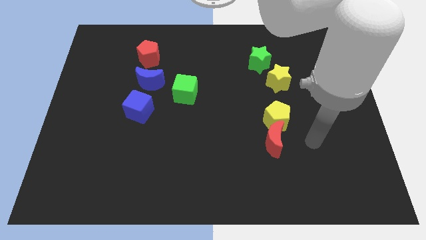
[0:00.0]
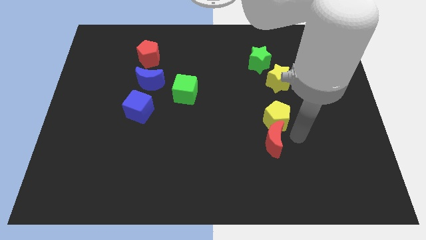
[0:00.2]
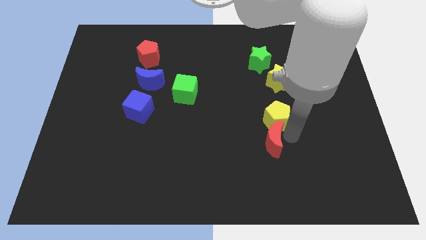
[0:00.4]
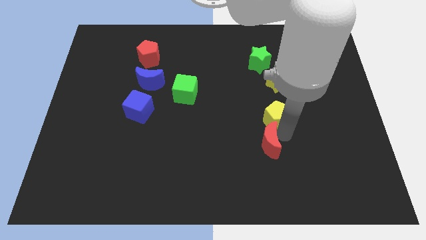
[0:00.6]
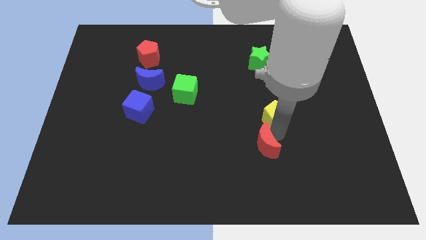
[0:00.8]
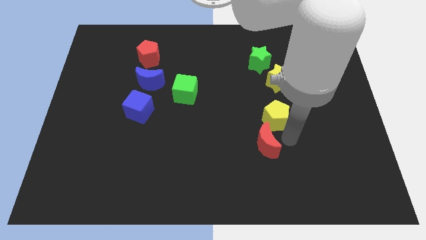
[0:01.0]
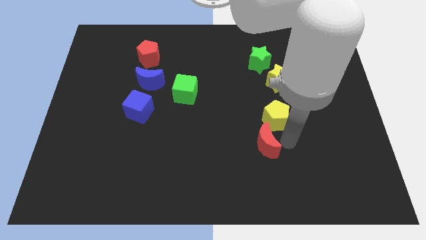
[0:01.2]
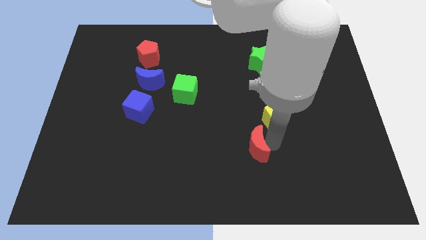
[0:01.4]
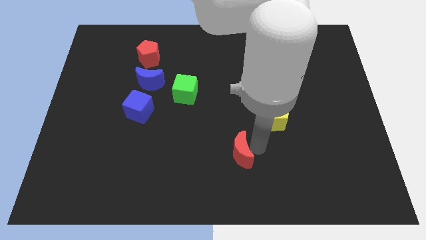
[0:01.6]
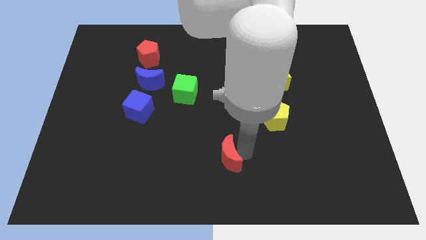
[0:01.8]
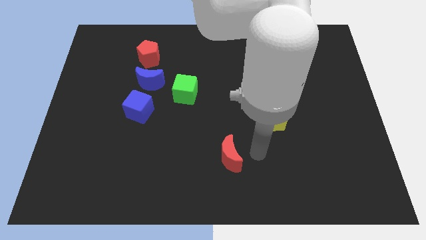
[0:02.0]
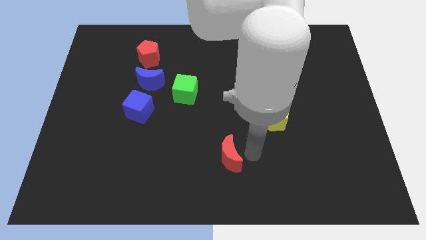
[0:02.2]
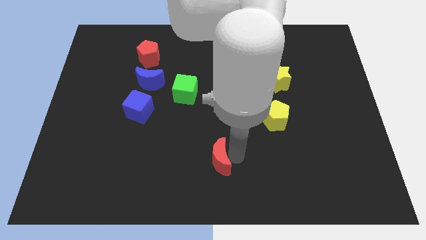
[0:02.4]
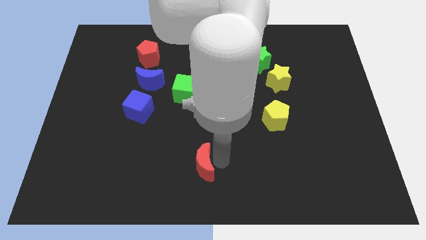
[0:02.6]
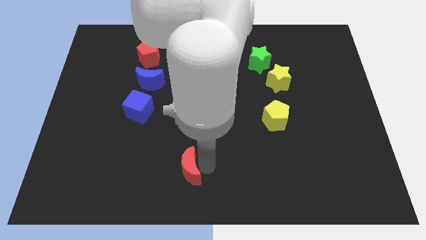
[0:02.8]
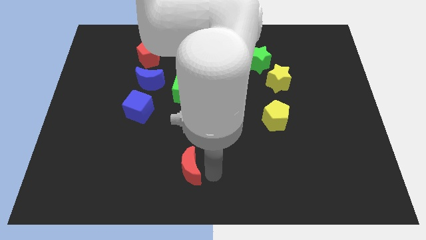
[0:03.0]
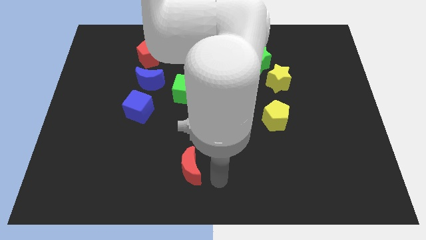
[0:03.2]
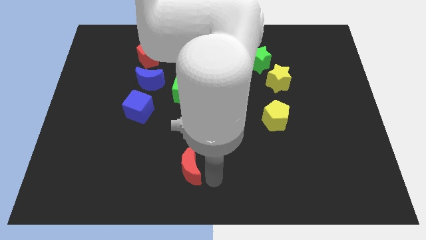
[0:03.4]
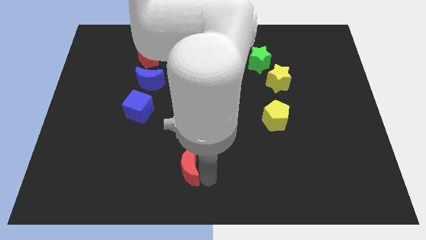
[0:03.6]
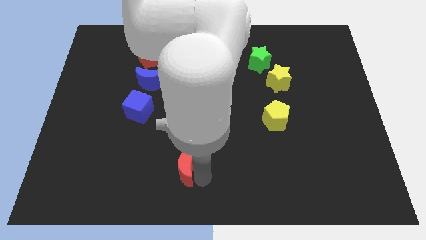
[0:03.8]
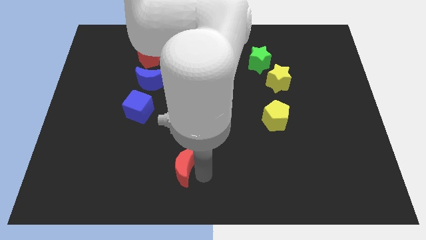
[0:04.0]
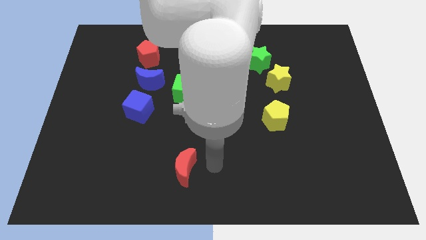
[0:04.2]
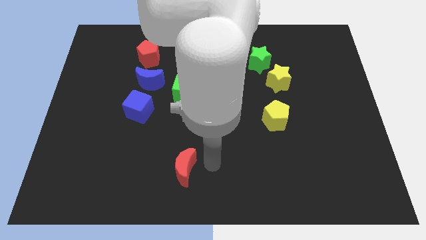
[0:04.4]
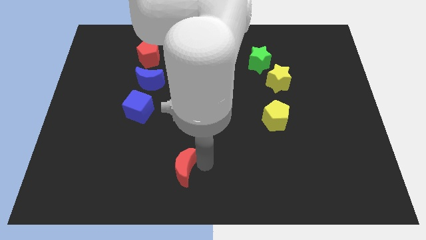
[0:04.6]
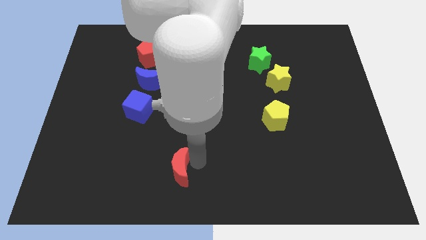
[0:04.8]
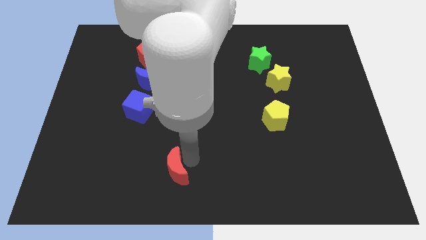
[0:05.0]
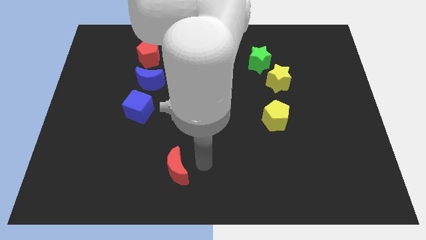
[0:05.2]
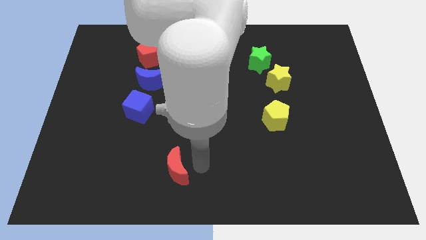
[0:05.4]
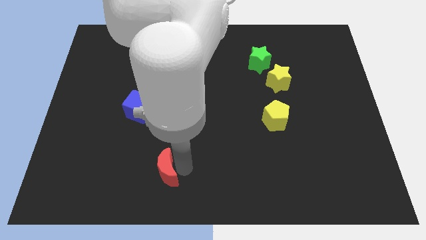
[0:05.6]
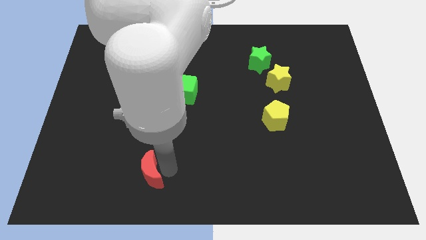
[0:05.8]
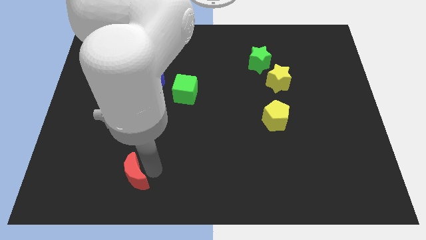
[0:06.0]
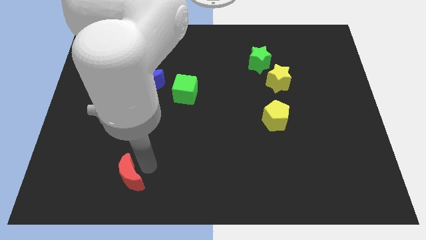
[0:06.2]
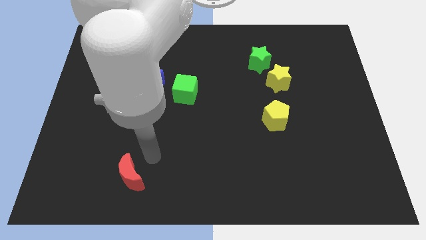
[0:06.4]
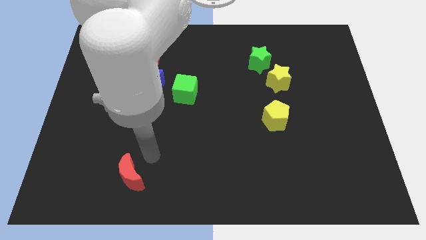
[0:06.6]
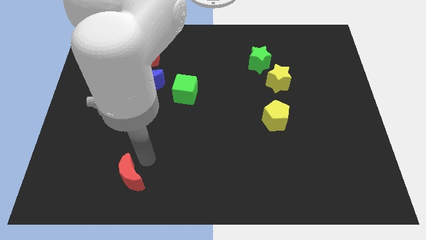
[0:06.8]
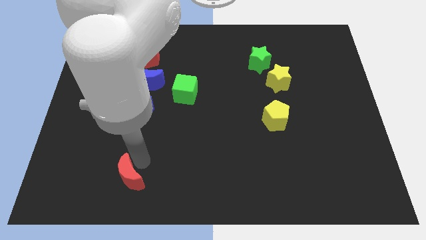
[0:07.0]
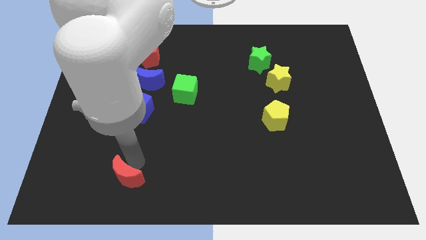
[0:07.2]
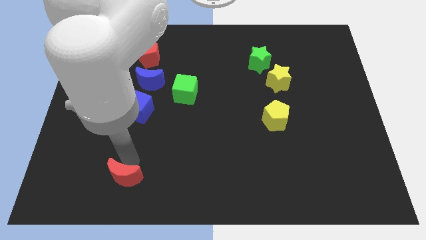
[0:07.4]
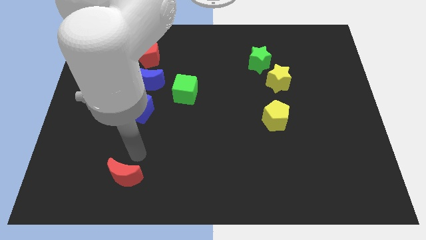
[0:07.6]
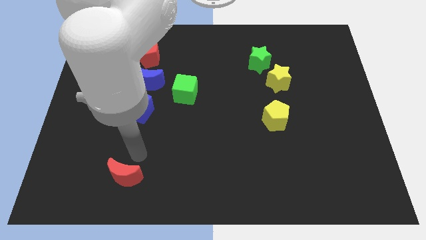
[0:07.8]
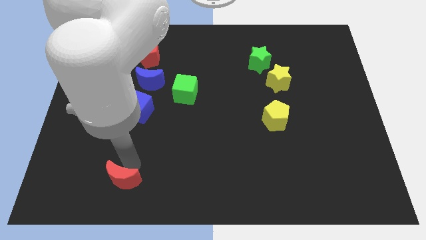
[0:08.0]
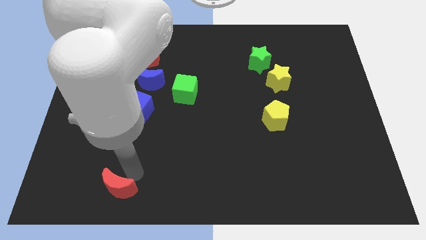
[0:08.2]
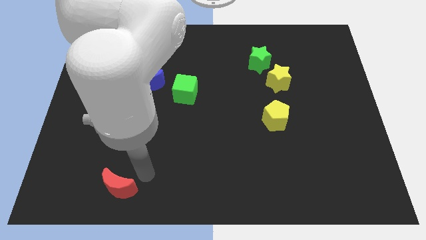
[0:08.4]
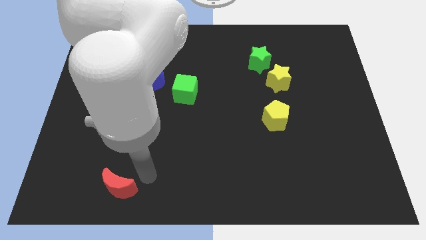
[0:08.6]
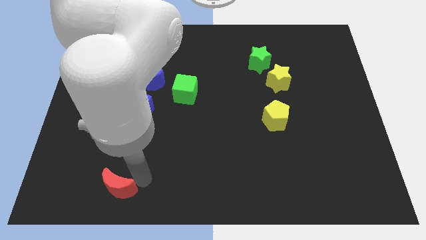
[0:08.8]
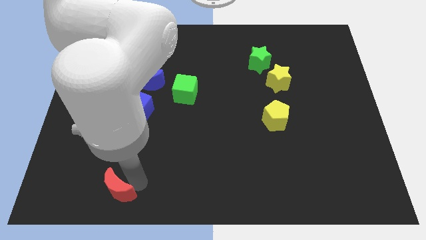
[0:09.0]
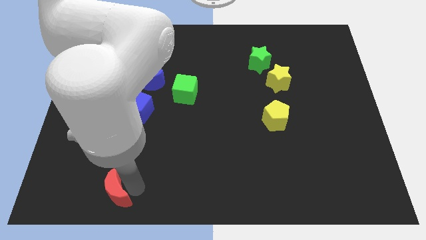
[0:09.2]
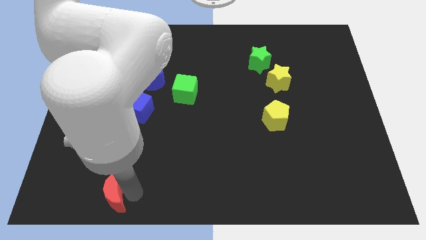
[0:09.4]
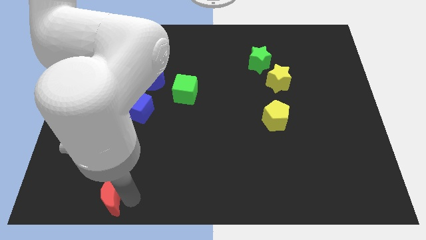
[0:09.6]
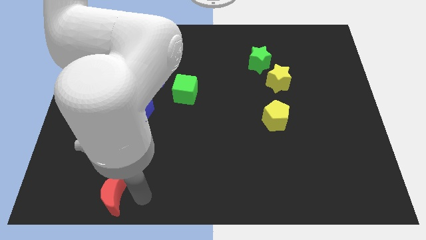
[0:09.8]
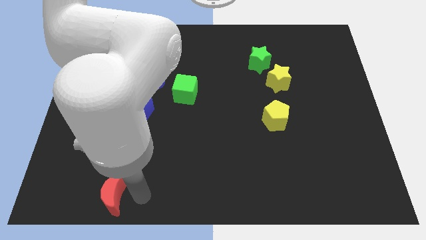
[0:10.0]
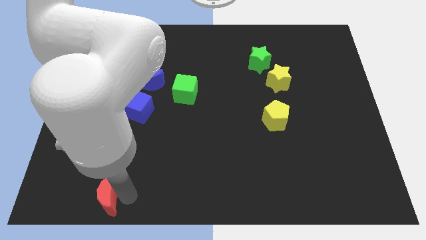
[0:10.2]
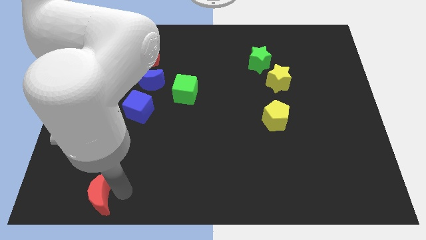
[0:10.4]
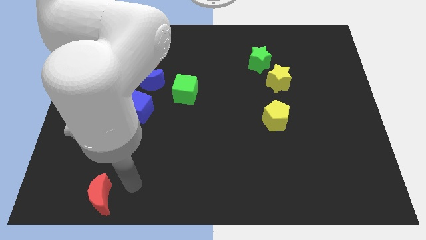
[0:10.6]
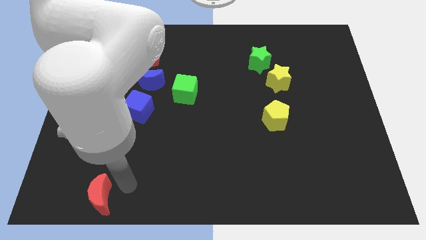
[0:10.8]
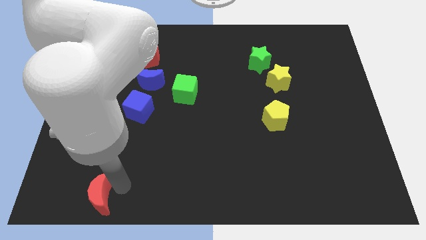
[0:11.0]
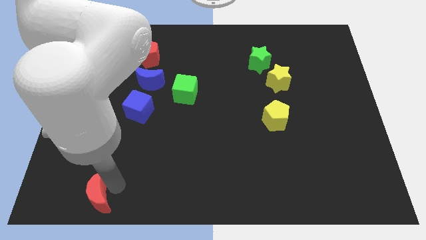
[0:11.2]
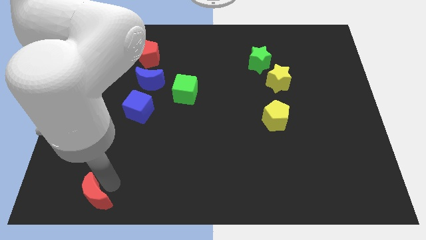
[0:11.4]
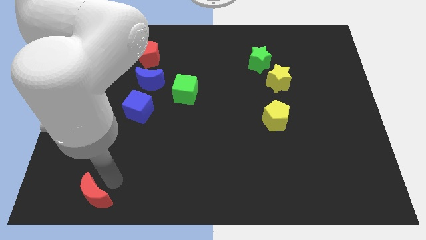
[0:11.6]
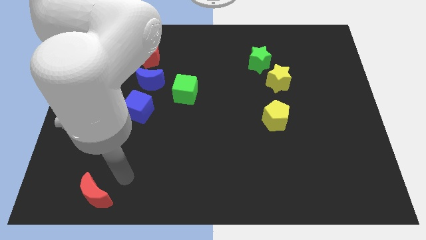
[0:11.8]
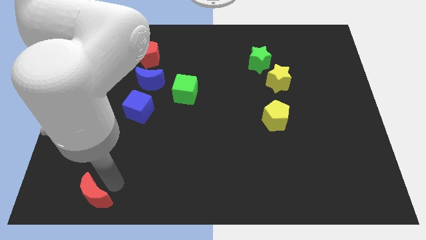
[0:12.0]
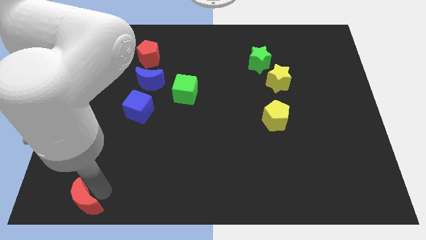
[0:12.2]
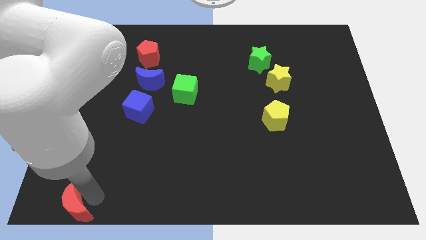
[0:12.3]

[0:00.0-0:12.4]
put the red moon to the bottom left of the board

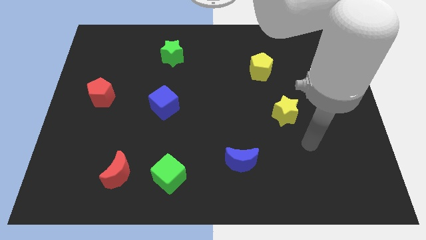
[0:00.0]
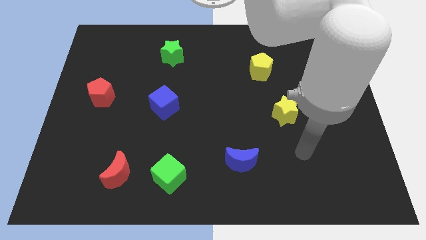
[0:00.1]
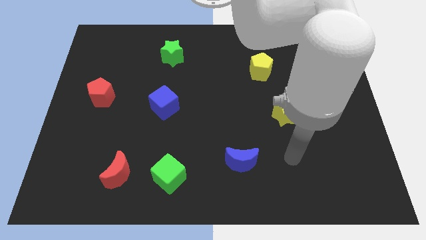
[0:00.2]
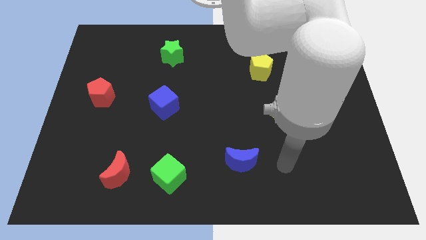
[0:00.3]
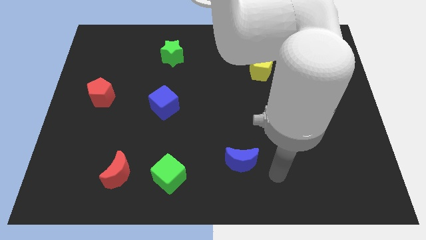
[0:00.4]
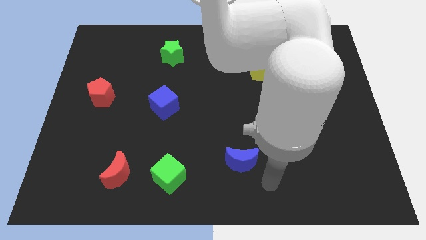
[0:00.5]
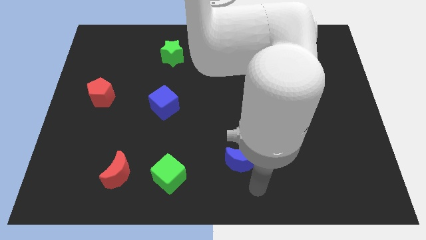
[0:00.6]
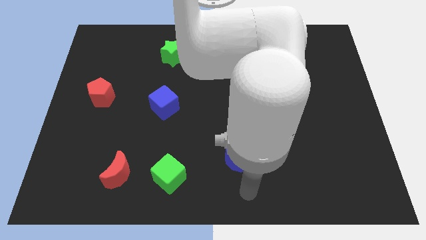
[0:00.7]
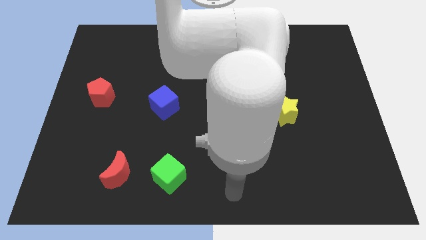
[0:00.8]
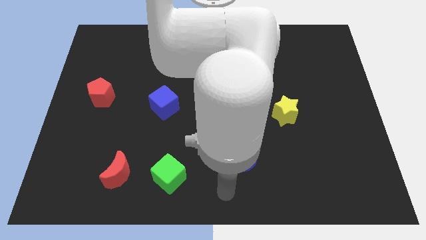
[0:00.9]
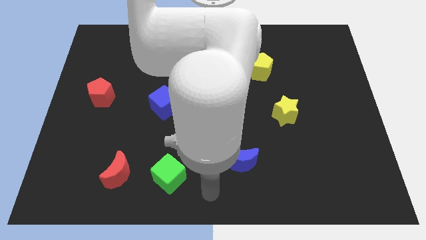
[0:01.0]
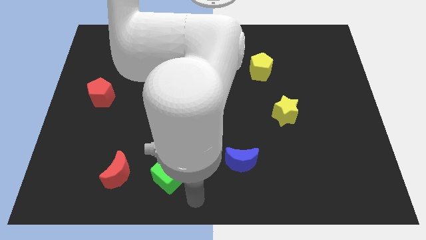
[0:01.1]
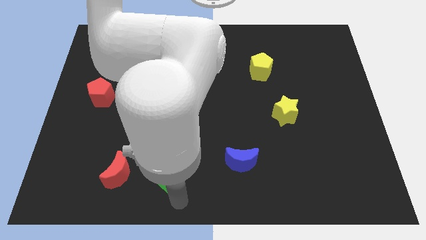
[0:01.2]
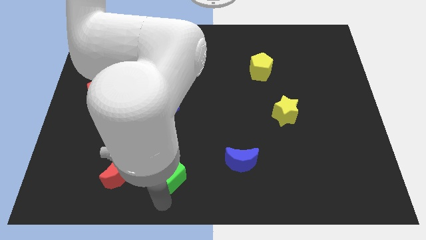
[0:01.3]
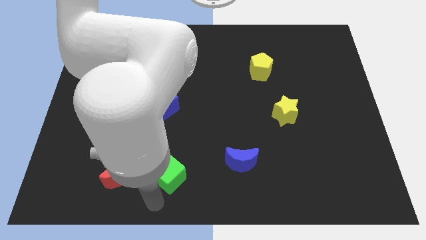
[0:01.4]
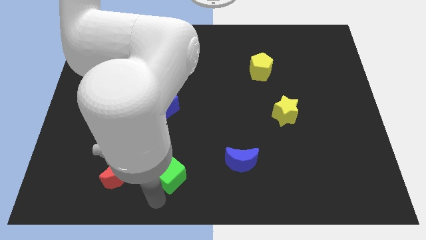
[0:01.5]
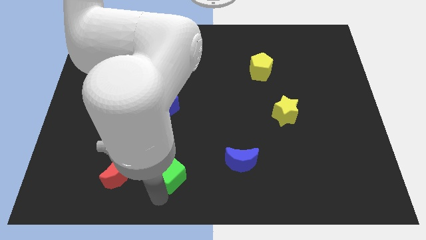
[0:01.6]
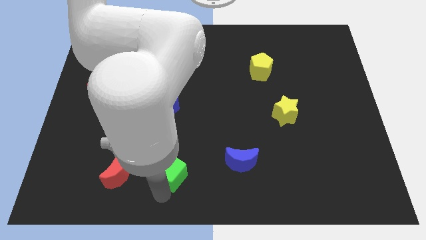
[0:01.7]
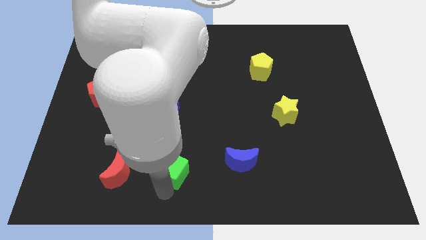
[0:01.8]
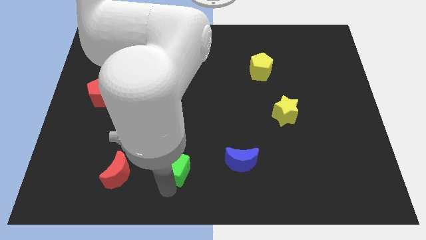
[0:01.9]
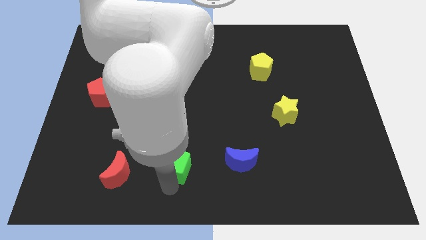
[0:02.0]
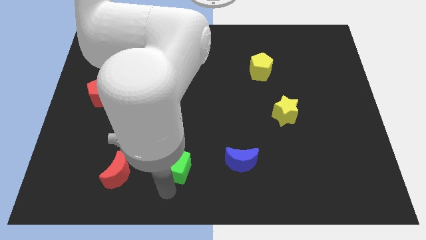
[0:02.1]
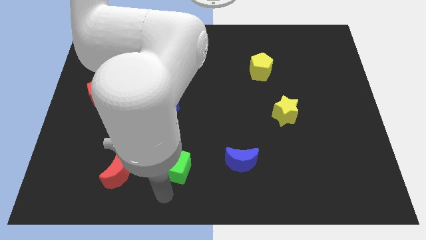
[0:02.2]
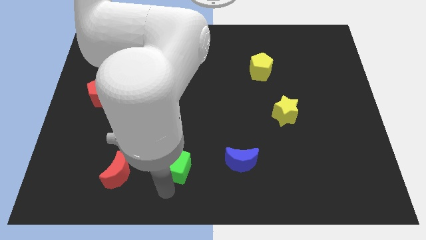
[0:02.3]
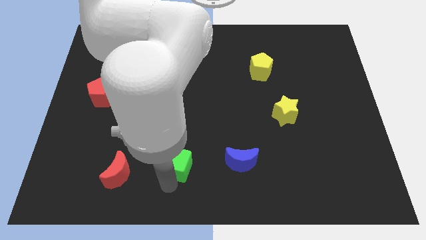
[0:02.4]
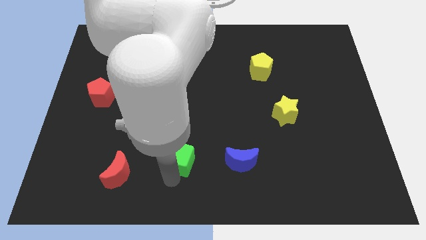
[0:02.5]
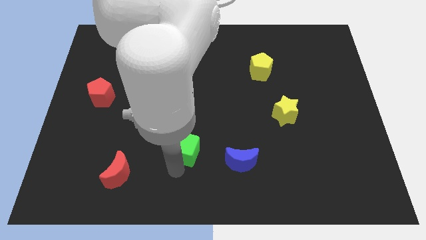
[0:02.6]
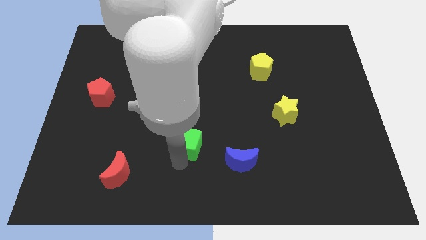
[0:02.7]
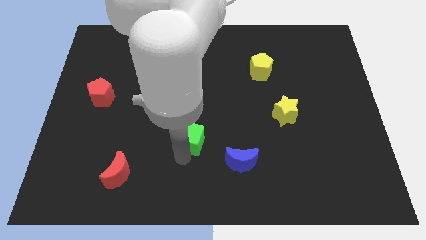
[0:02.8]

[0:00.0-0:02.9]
move the green cube to the center of the board
